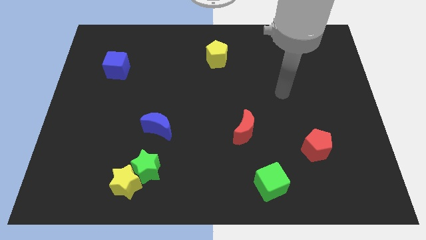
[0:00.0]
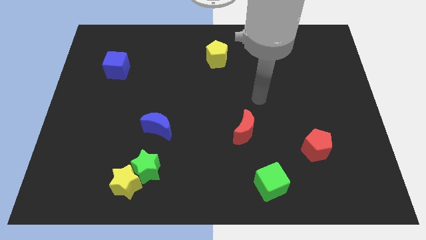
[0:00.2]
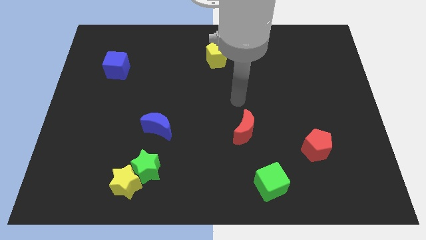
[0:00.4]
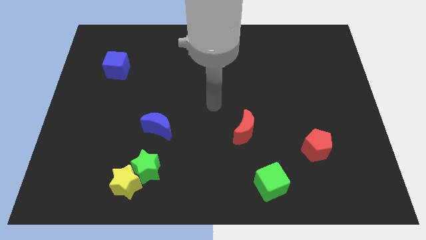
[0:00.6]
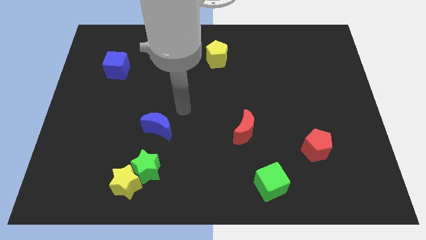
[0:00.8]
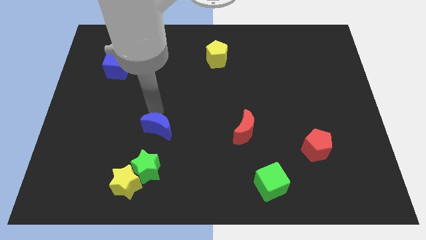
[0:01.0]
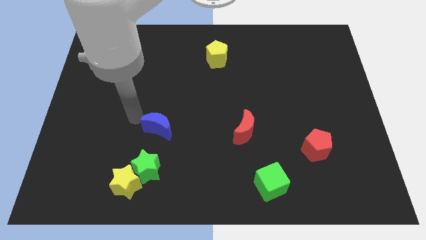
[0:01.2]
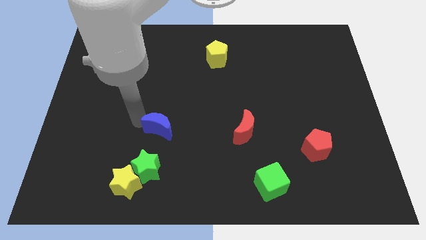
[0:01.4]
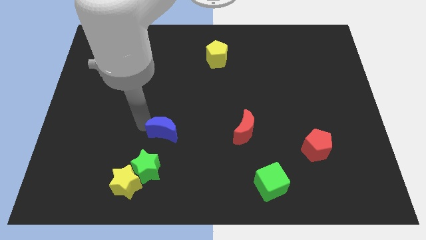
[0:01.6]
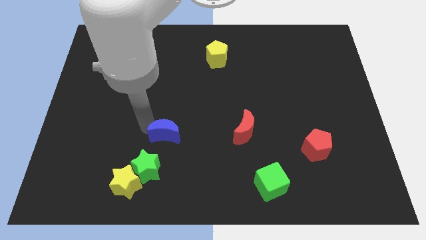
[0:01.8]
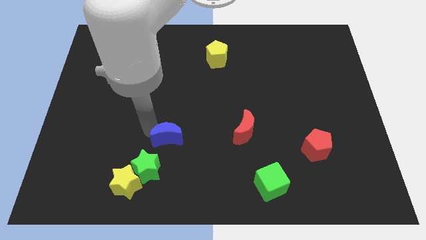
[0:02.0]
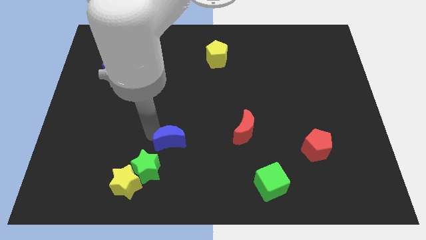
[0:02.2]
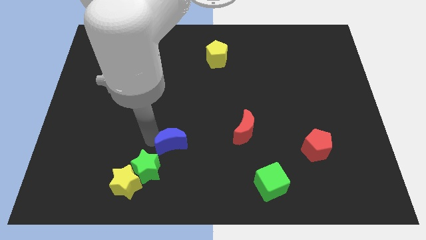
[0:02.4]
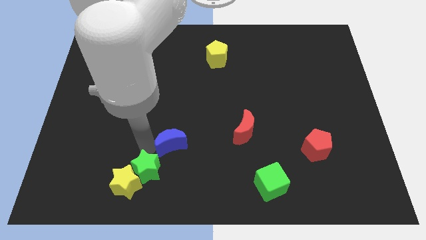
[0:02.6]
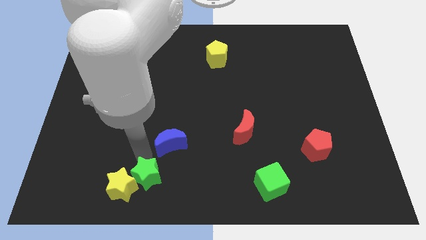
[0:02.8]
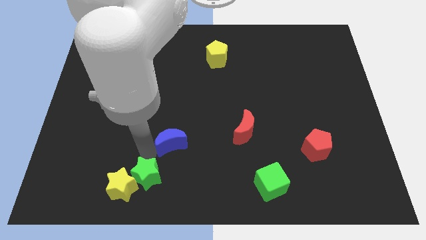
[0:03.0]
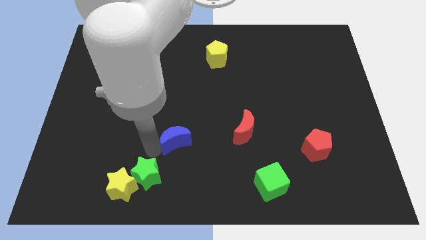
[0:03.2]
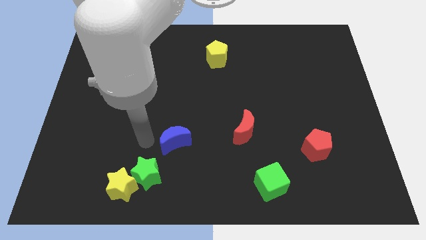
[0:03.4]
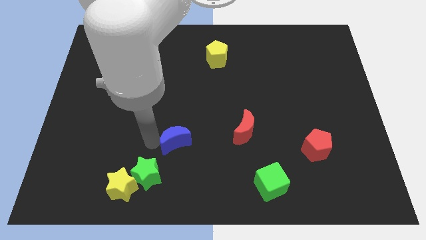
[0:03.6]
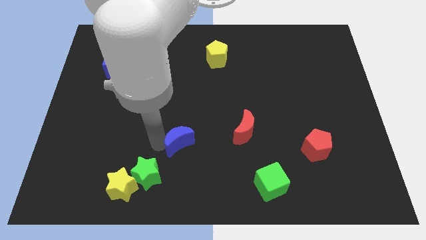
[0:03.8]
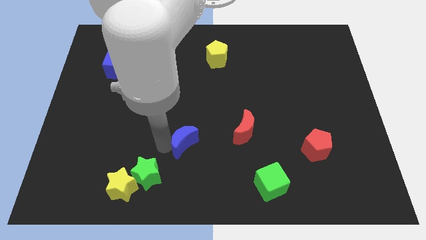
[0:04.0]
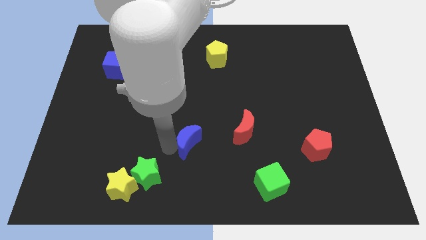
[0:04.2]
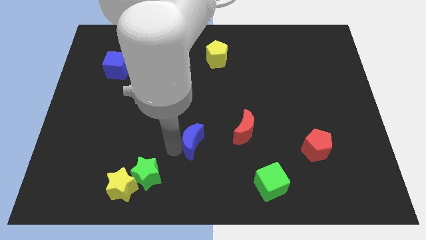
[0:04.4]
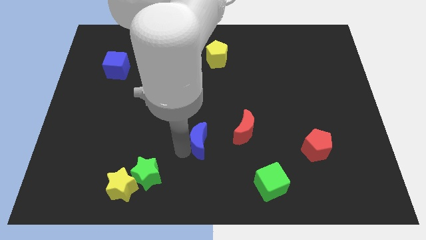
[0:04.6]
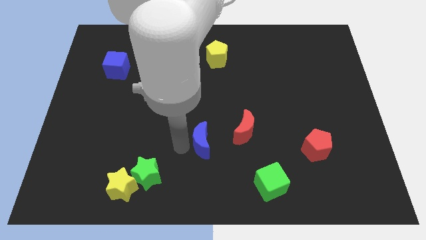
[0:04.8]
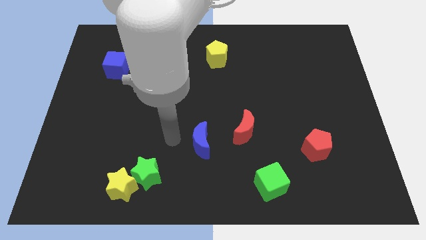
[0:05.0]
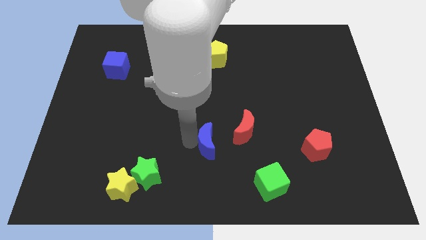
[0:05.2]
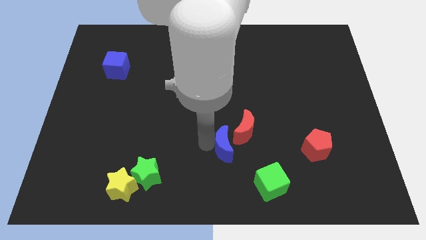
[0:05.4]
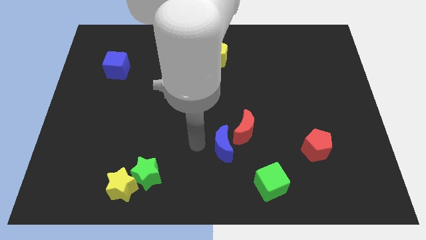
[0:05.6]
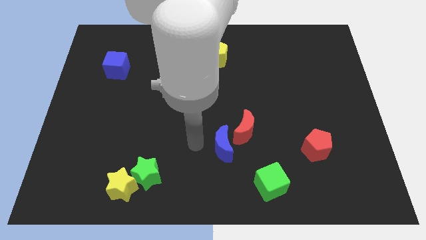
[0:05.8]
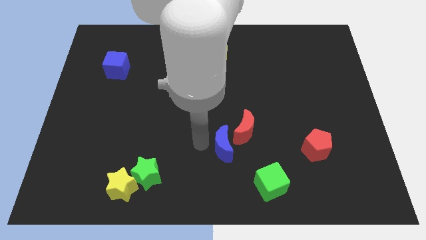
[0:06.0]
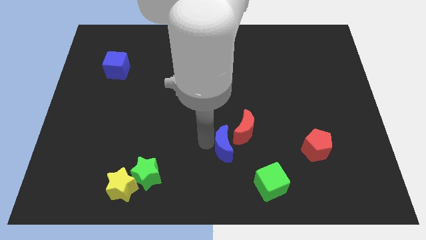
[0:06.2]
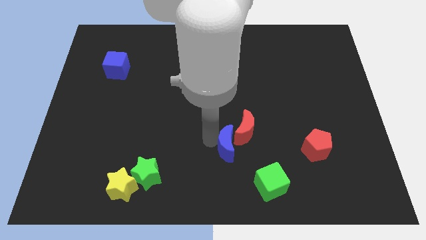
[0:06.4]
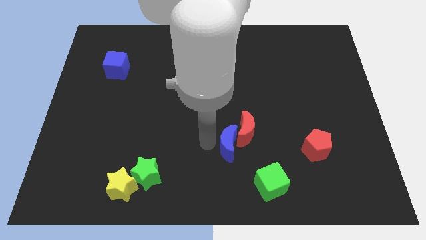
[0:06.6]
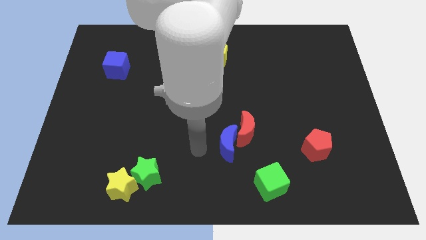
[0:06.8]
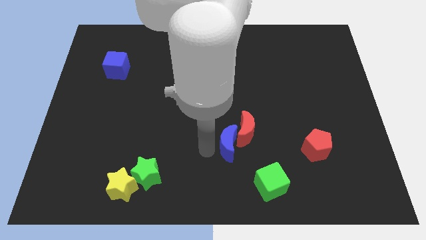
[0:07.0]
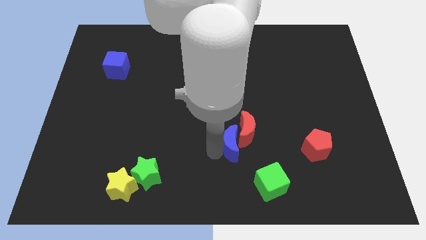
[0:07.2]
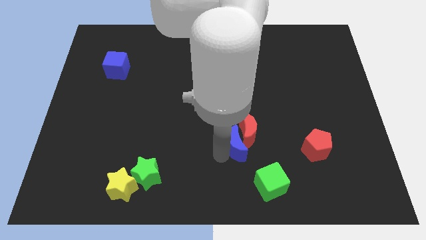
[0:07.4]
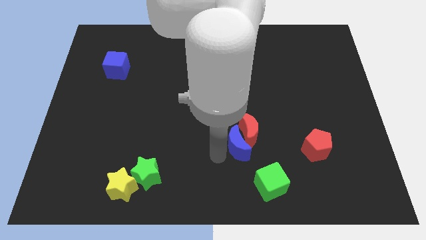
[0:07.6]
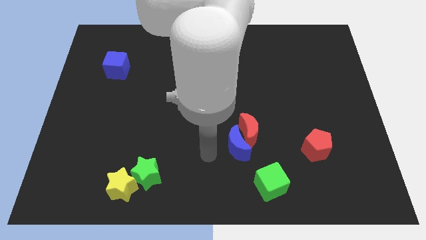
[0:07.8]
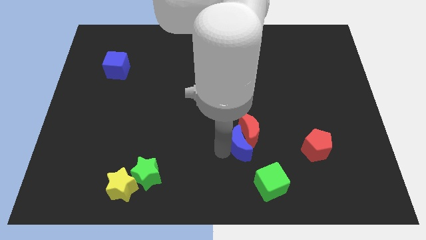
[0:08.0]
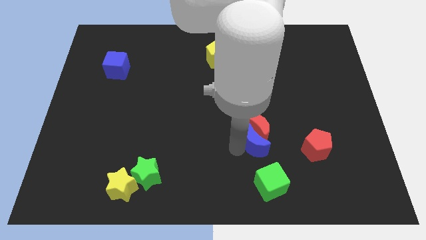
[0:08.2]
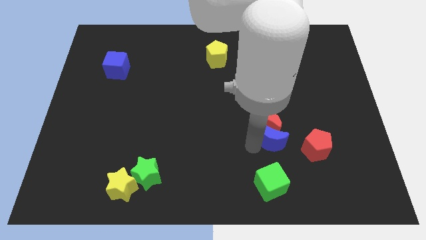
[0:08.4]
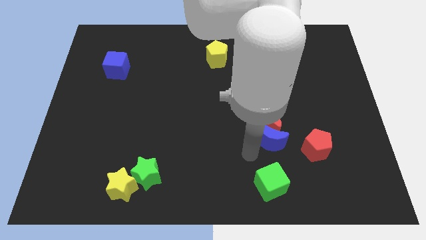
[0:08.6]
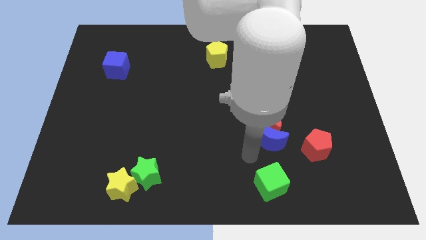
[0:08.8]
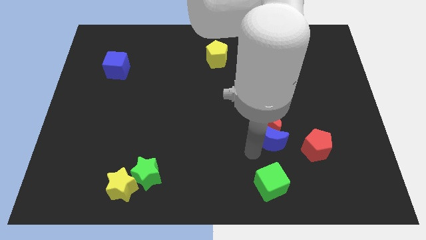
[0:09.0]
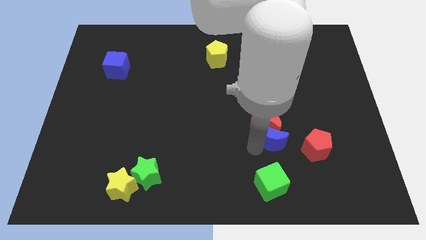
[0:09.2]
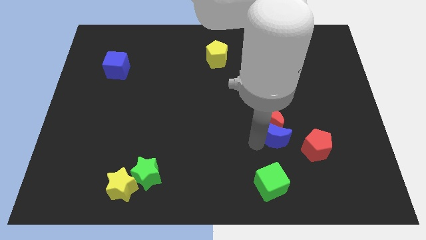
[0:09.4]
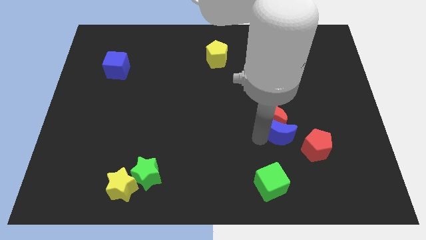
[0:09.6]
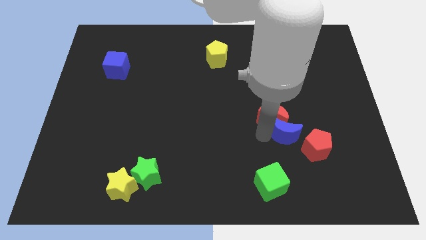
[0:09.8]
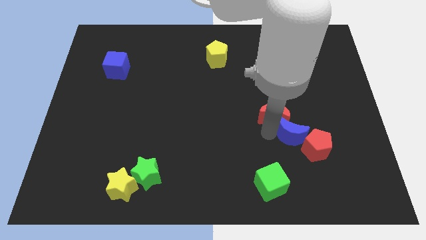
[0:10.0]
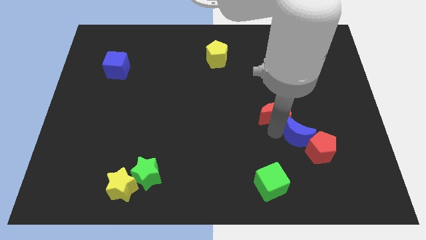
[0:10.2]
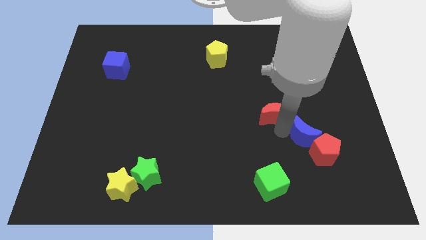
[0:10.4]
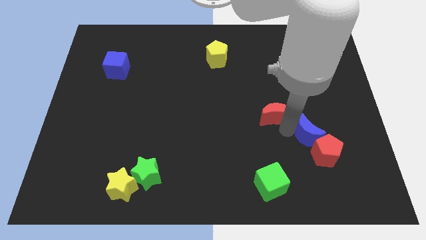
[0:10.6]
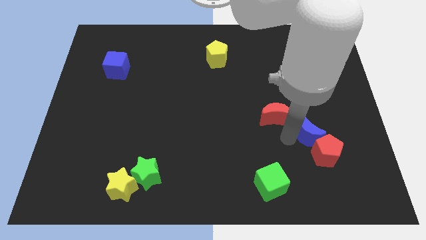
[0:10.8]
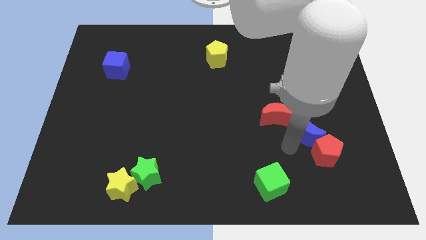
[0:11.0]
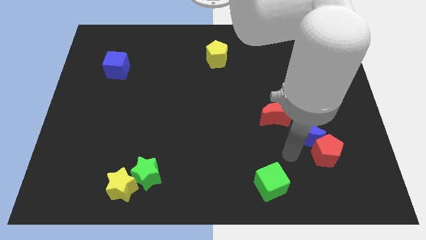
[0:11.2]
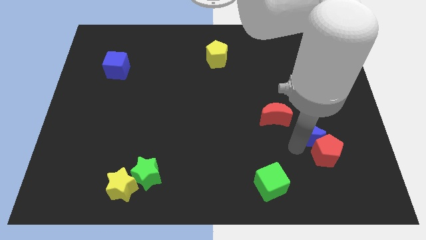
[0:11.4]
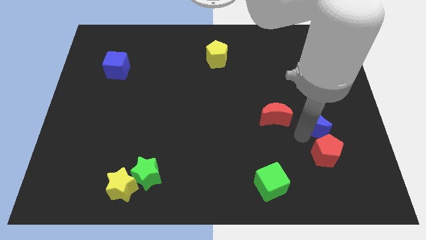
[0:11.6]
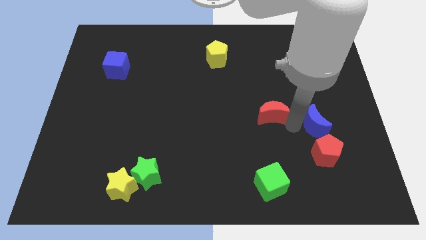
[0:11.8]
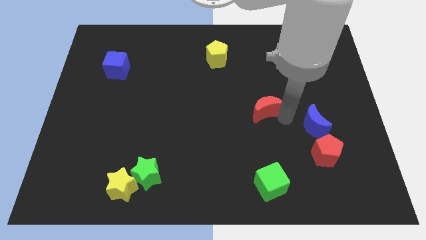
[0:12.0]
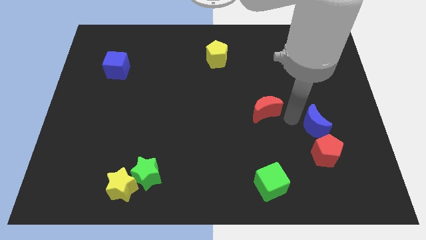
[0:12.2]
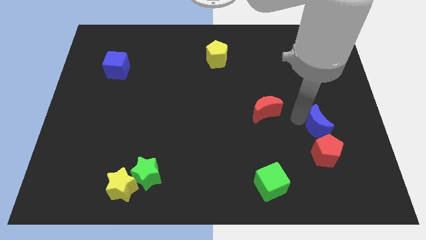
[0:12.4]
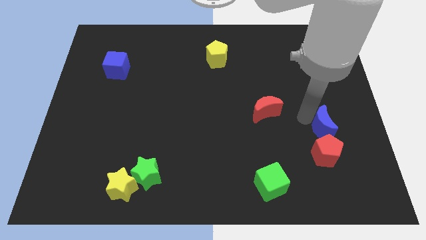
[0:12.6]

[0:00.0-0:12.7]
move the blue moon to the top right of the red pentagon

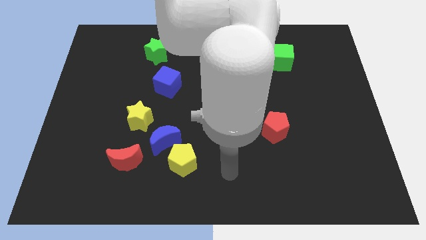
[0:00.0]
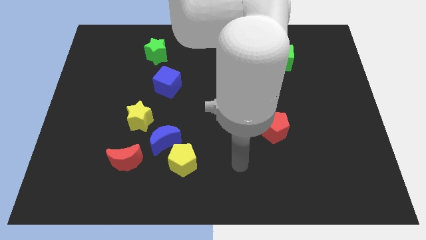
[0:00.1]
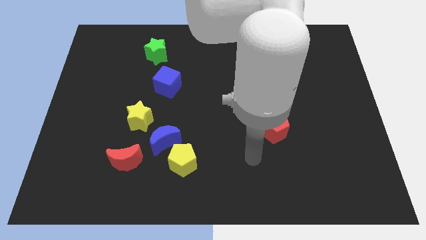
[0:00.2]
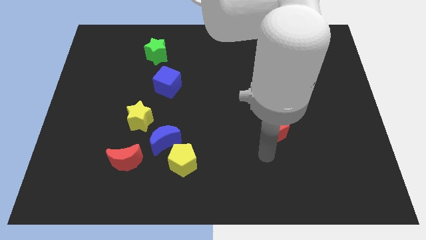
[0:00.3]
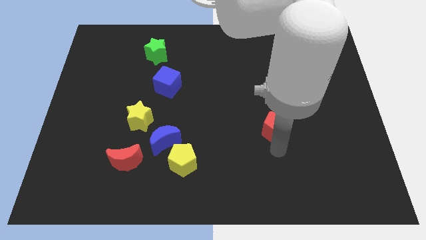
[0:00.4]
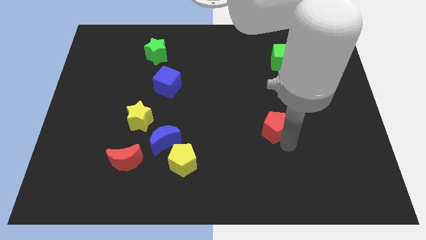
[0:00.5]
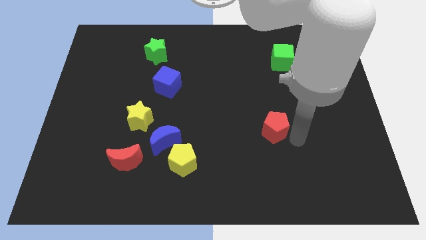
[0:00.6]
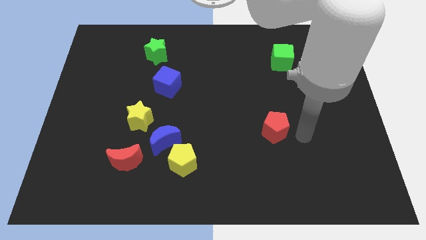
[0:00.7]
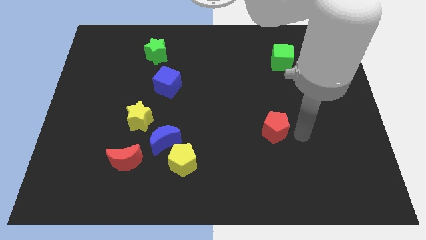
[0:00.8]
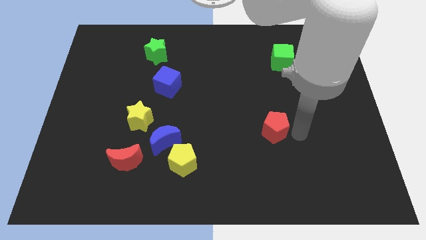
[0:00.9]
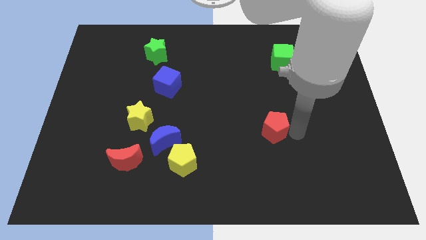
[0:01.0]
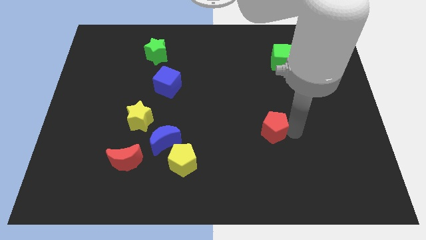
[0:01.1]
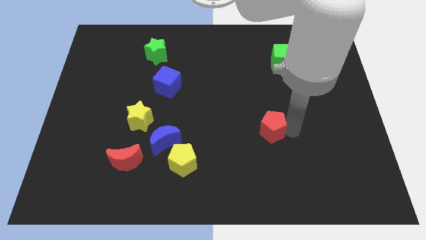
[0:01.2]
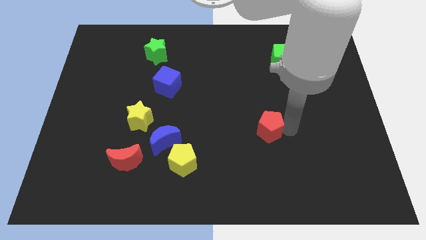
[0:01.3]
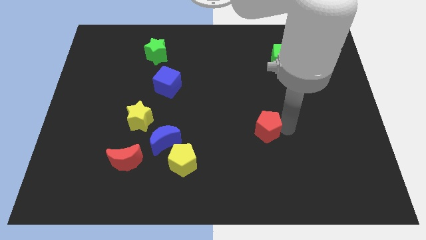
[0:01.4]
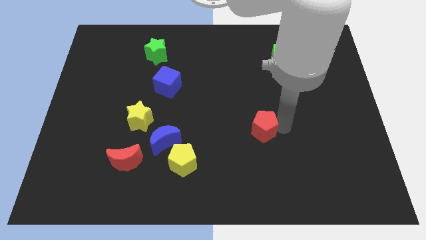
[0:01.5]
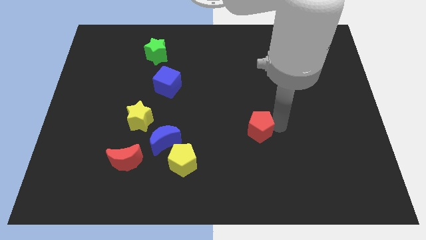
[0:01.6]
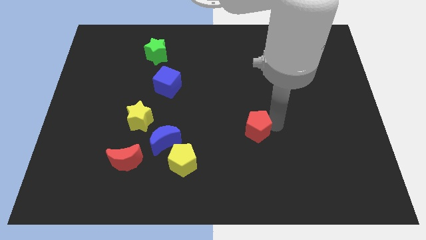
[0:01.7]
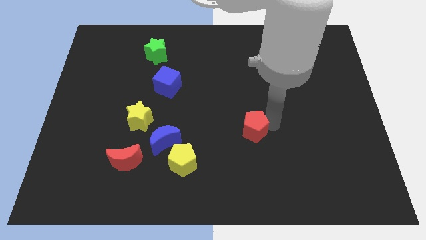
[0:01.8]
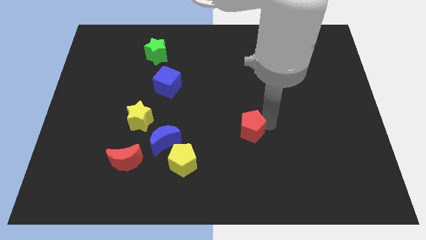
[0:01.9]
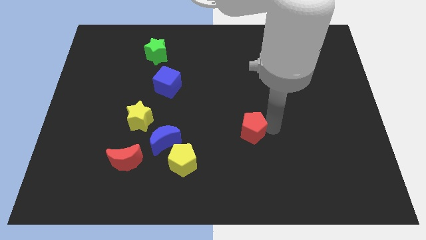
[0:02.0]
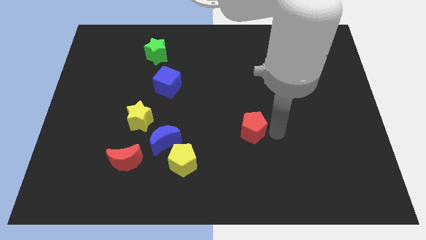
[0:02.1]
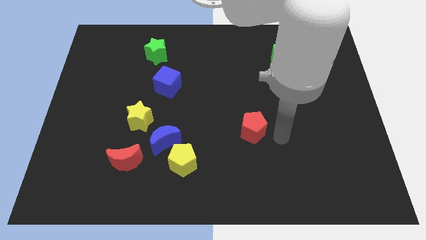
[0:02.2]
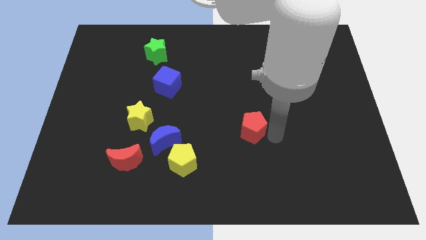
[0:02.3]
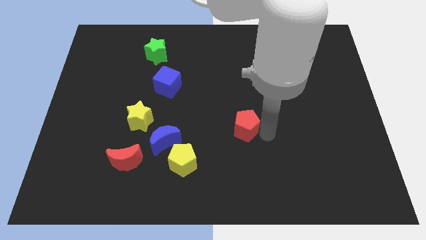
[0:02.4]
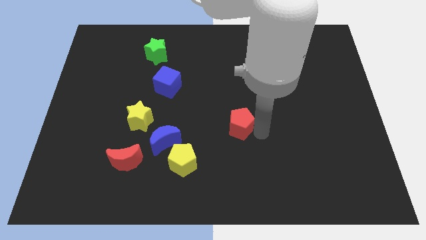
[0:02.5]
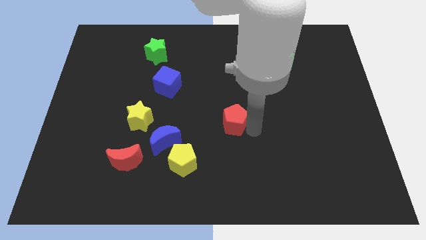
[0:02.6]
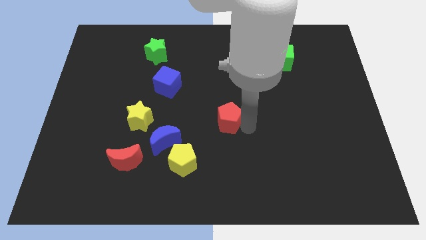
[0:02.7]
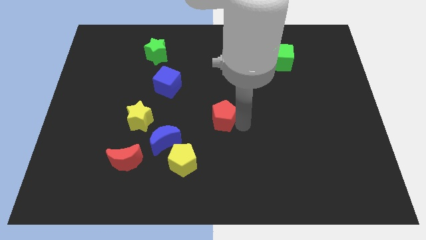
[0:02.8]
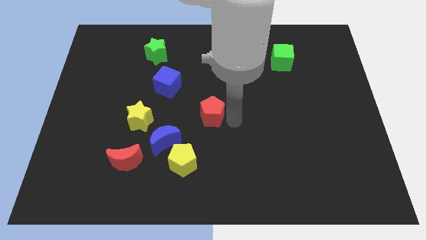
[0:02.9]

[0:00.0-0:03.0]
move the red pentagon to the top right side of the blue moon
